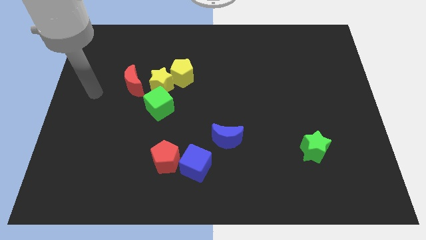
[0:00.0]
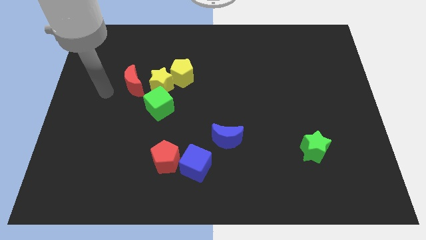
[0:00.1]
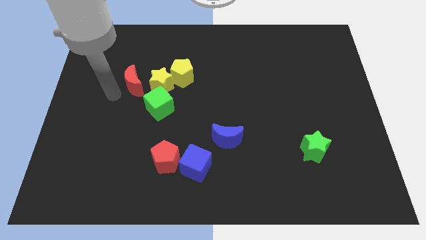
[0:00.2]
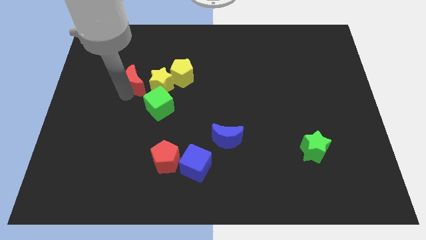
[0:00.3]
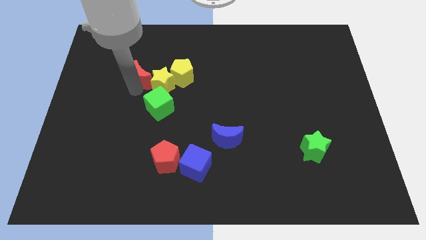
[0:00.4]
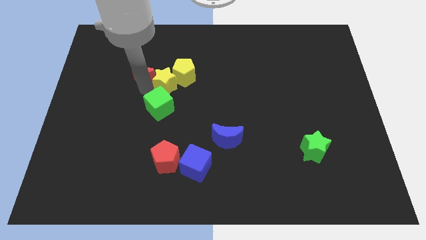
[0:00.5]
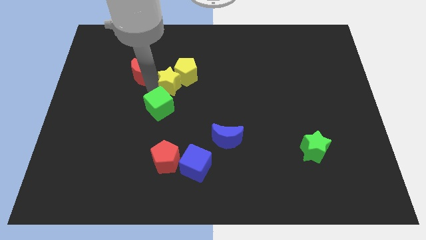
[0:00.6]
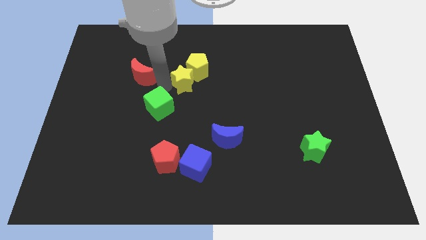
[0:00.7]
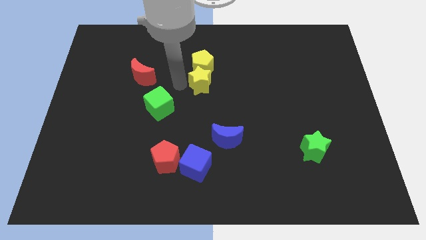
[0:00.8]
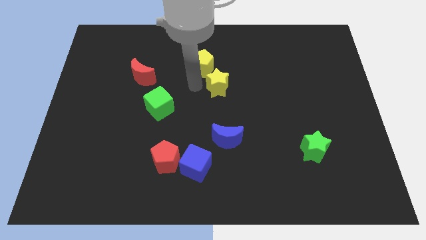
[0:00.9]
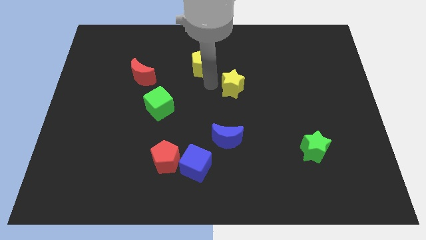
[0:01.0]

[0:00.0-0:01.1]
pull the yellow pentagon apart from the yellow star

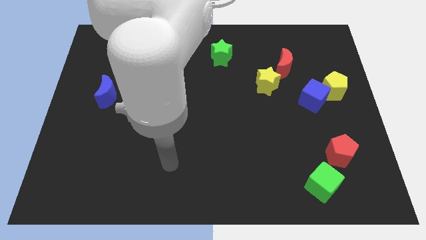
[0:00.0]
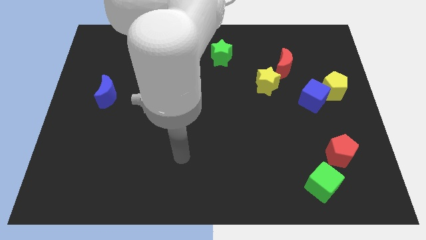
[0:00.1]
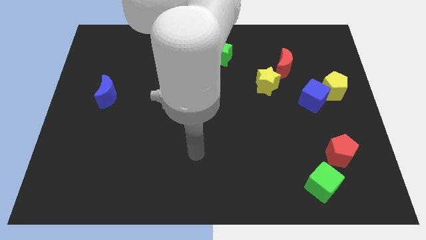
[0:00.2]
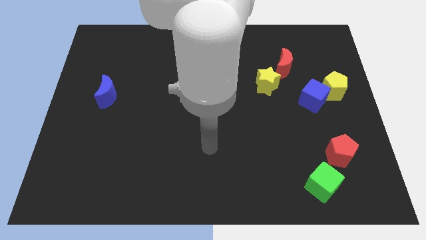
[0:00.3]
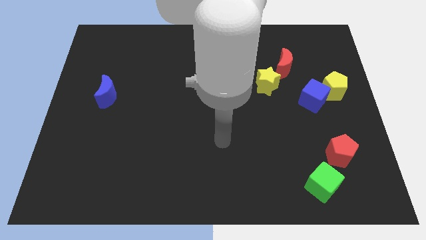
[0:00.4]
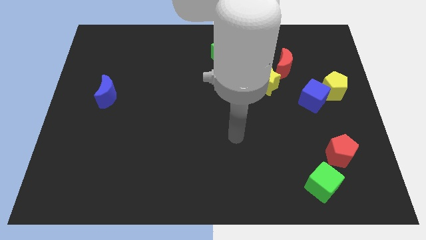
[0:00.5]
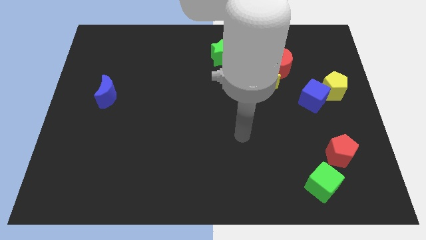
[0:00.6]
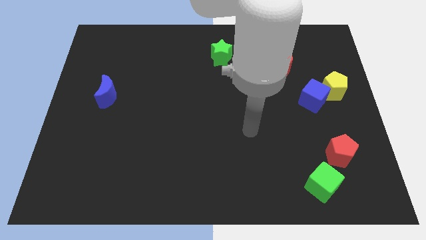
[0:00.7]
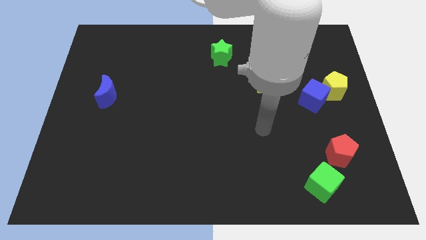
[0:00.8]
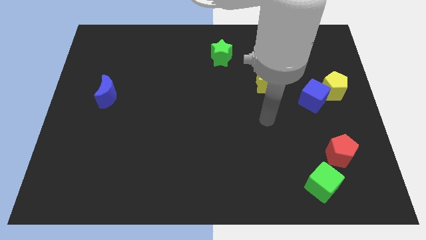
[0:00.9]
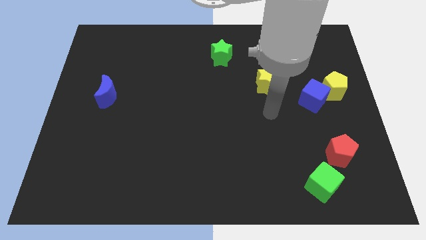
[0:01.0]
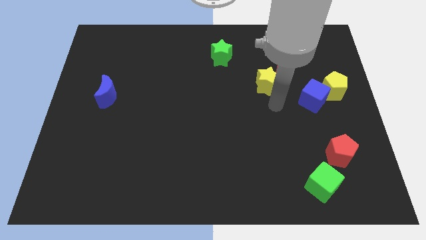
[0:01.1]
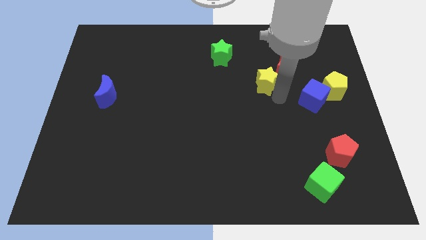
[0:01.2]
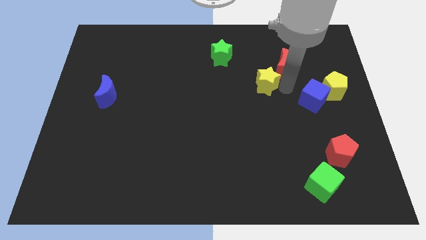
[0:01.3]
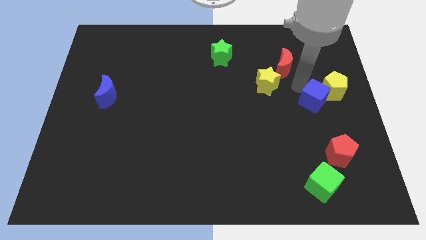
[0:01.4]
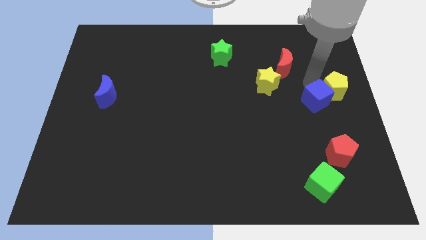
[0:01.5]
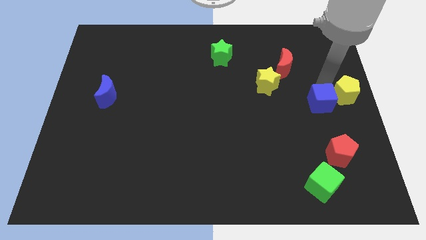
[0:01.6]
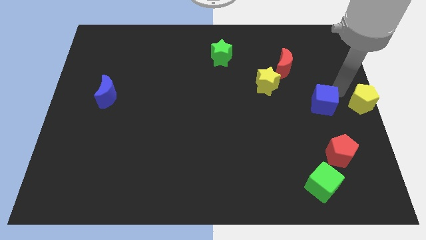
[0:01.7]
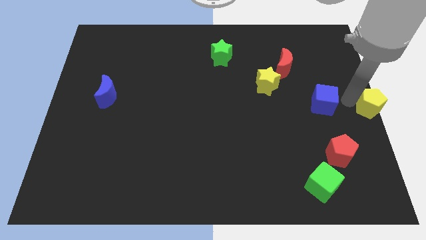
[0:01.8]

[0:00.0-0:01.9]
separate the blue cube from the yellow pentagon

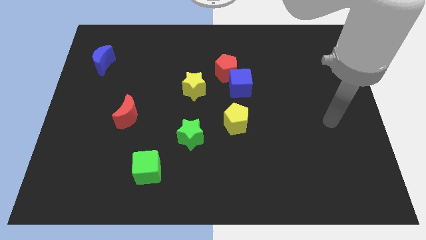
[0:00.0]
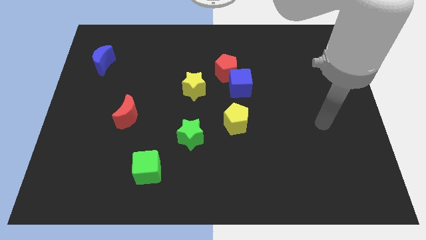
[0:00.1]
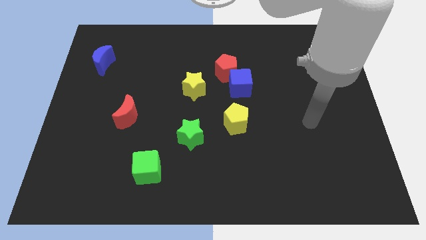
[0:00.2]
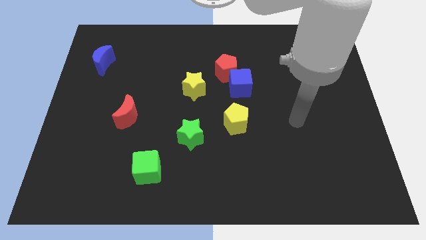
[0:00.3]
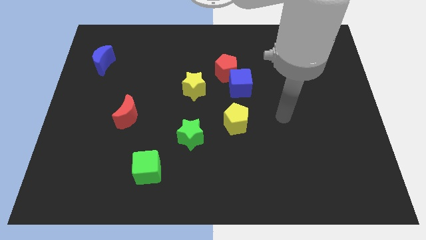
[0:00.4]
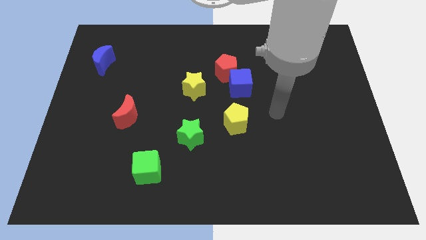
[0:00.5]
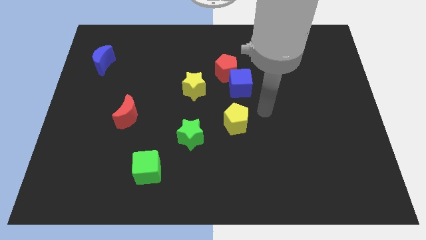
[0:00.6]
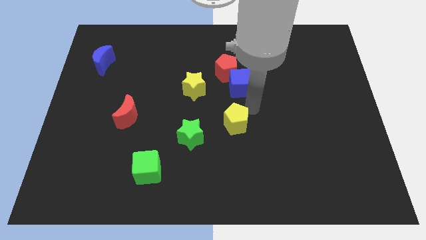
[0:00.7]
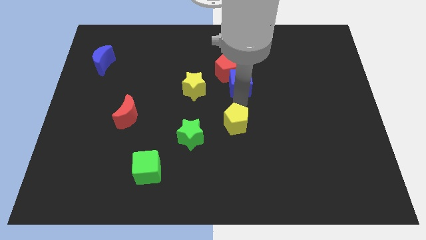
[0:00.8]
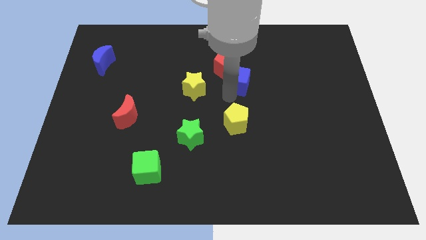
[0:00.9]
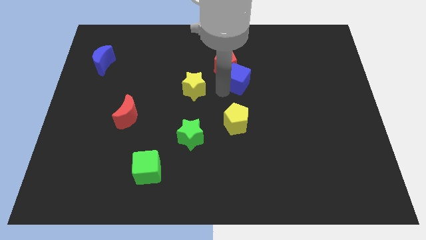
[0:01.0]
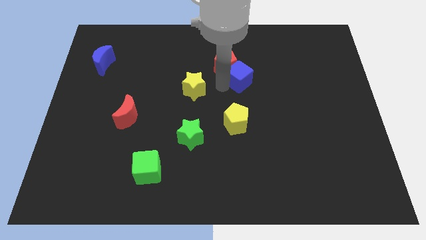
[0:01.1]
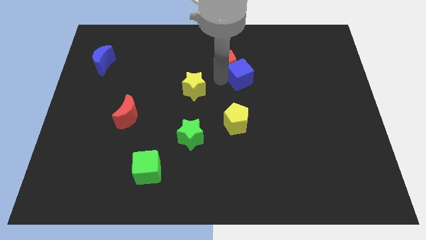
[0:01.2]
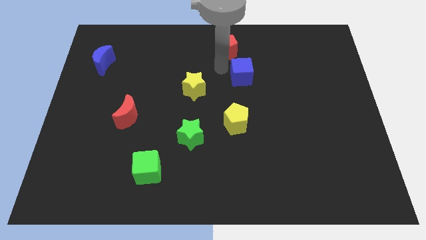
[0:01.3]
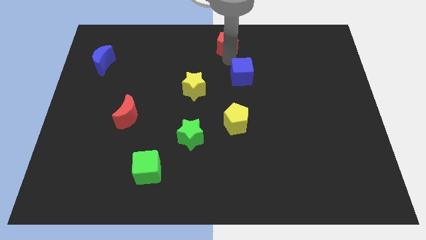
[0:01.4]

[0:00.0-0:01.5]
move the blue cube away from the red pentagon

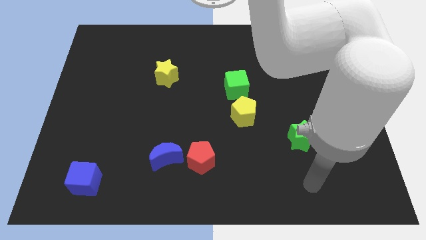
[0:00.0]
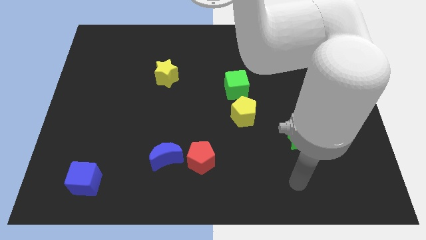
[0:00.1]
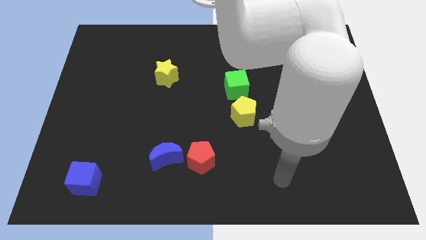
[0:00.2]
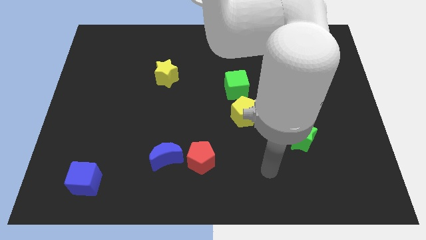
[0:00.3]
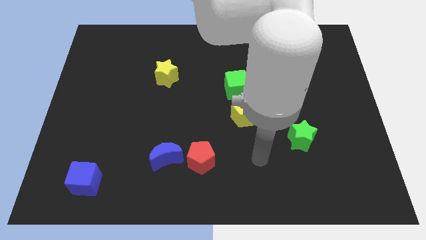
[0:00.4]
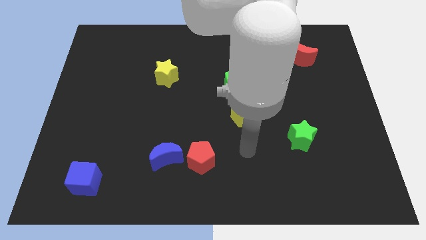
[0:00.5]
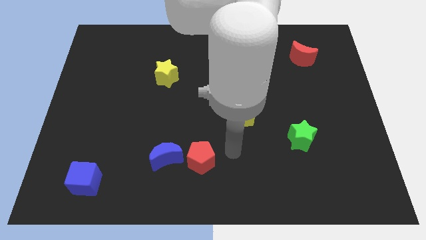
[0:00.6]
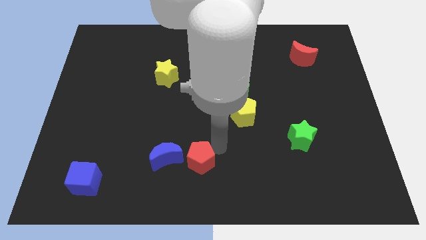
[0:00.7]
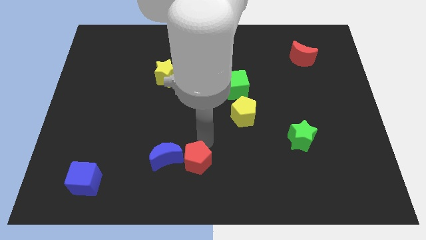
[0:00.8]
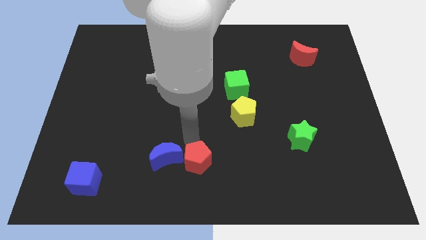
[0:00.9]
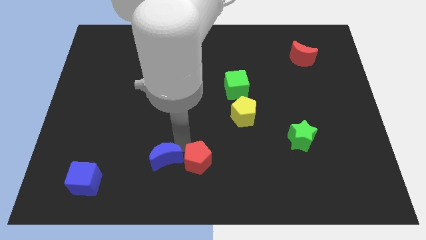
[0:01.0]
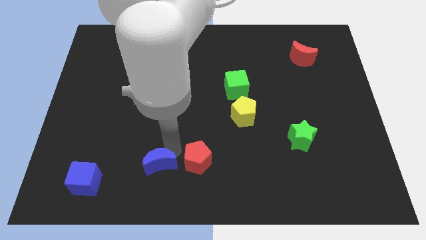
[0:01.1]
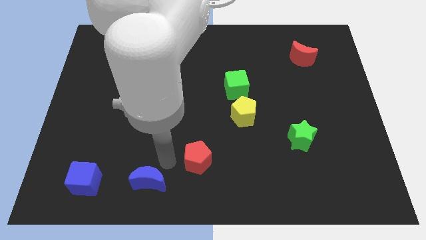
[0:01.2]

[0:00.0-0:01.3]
pull the red pentagon apart from the blue moon

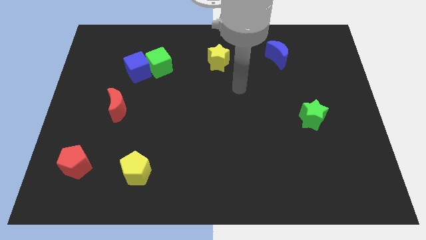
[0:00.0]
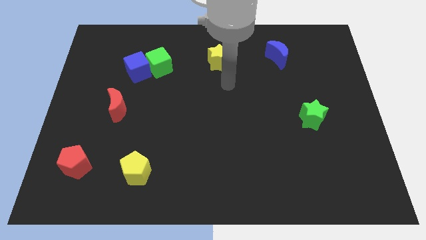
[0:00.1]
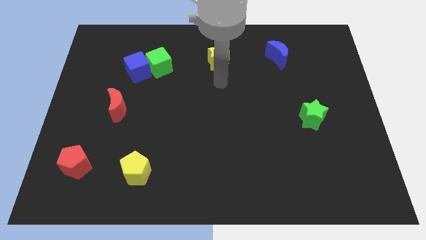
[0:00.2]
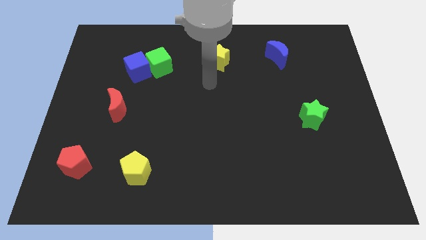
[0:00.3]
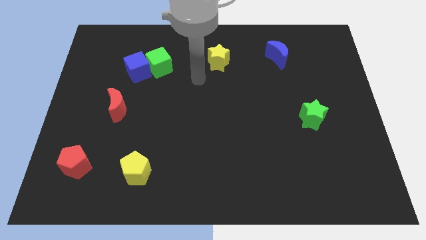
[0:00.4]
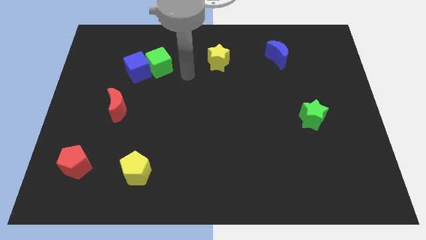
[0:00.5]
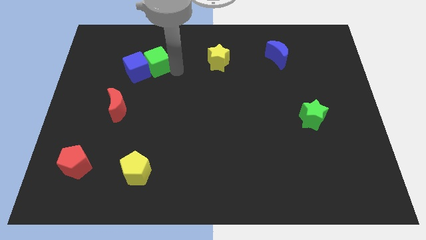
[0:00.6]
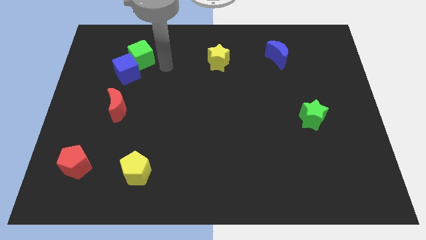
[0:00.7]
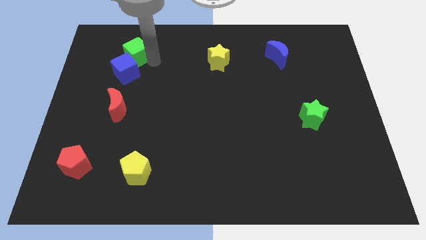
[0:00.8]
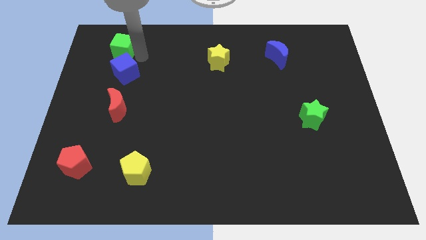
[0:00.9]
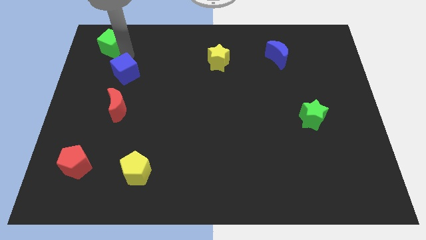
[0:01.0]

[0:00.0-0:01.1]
move the blue cube away from the green cube

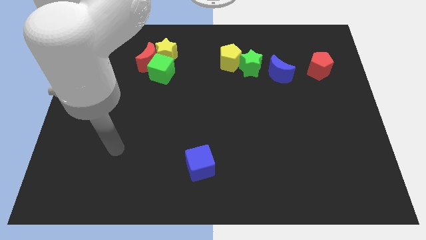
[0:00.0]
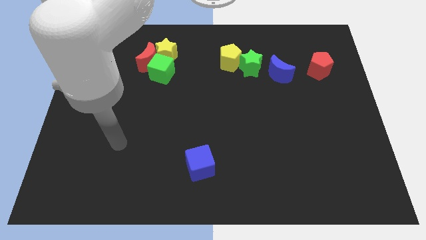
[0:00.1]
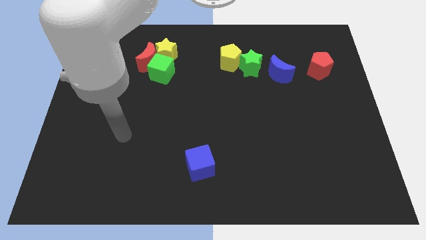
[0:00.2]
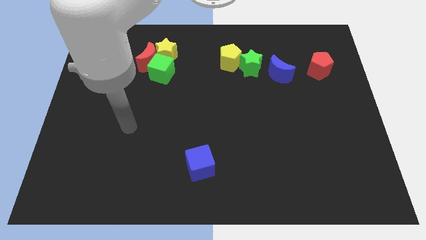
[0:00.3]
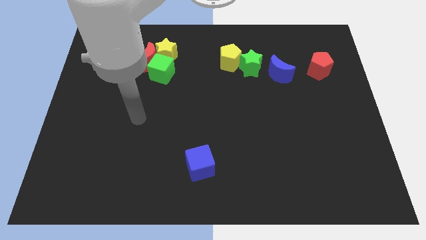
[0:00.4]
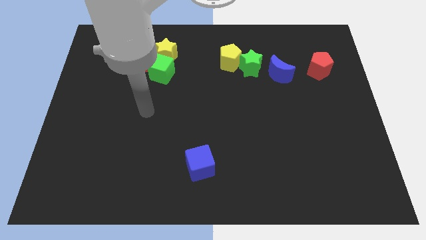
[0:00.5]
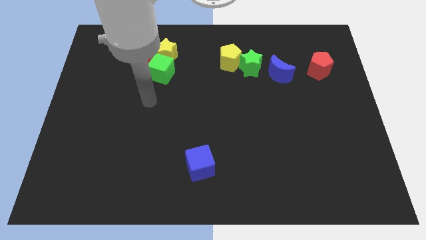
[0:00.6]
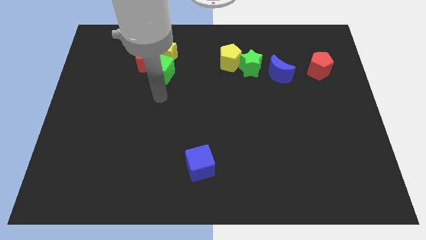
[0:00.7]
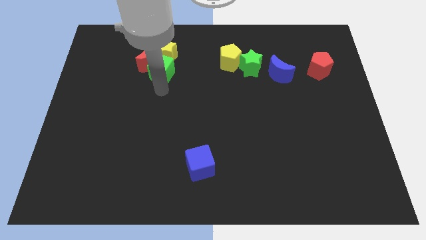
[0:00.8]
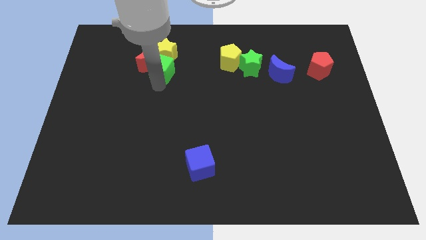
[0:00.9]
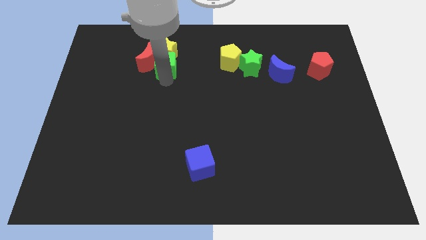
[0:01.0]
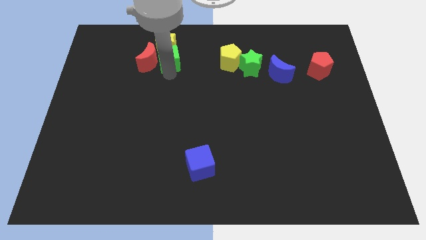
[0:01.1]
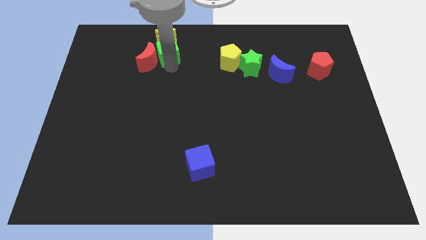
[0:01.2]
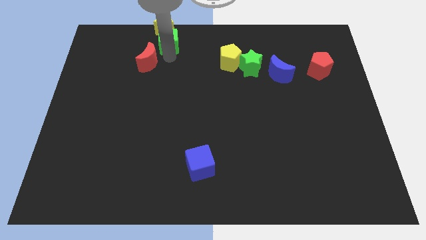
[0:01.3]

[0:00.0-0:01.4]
move the red moon away from the yellow star and green cube

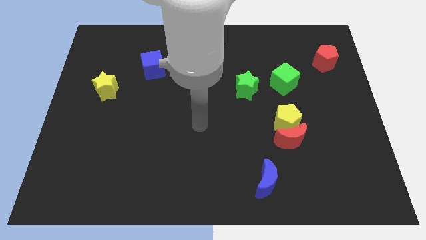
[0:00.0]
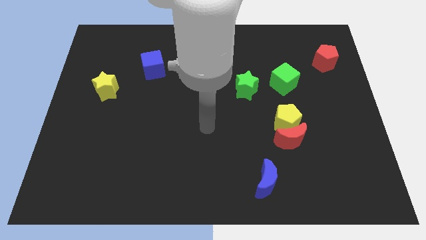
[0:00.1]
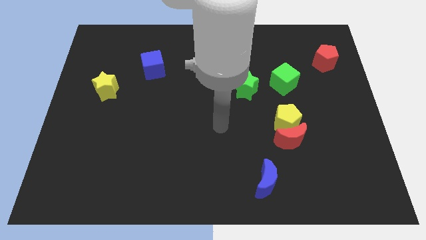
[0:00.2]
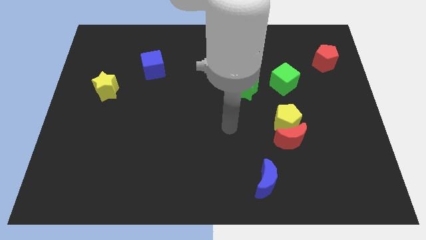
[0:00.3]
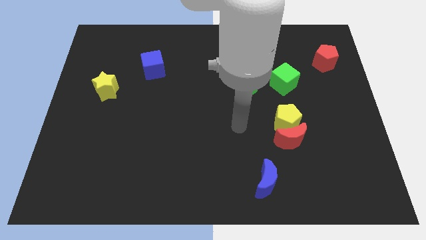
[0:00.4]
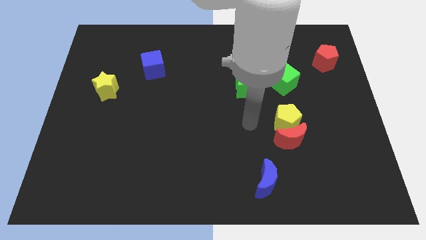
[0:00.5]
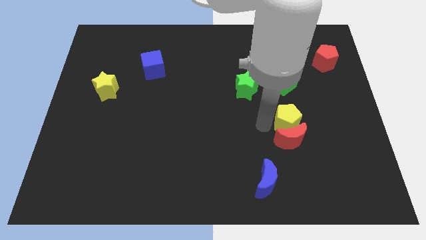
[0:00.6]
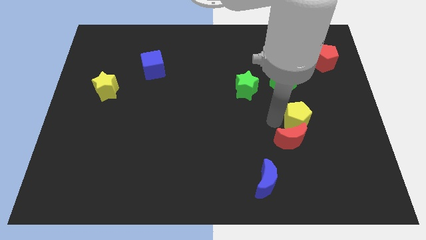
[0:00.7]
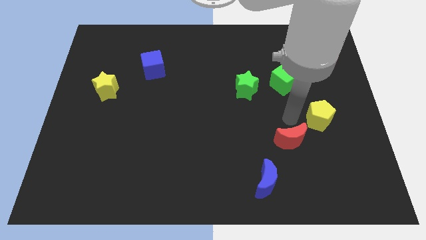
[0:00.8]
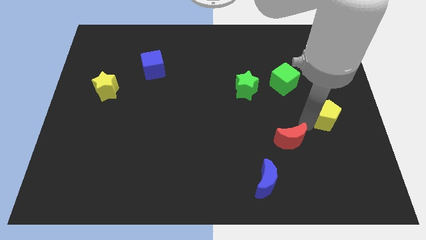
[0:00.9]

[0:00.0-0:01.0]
pull the red moon apart from the yellow pentagon

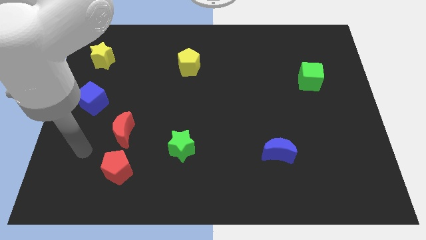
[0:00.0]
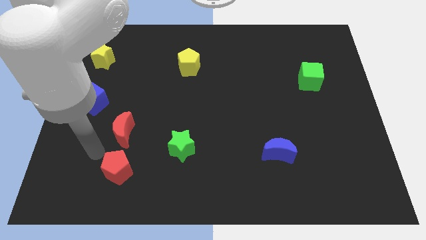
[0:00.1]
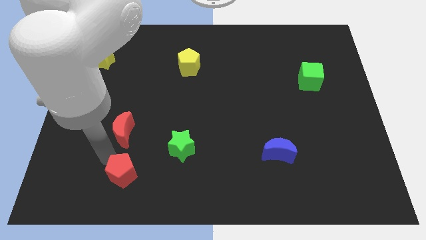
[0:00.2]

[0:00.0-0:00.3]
separate the red moon from the red pentagon
